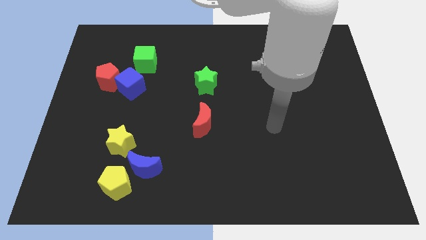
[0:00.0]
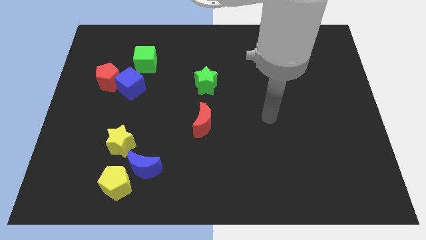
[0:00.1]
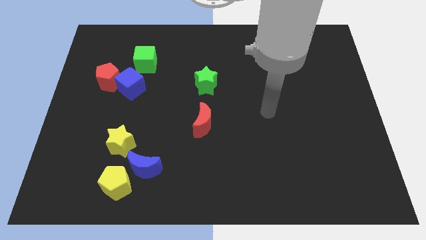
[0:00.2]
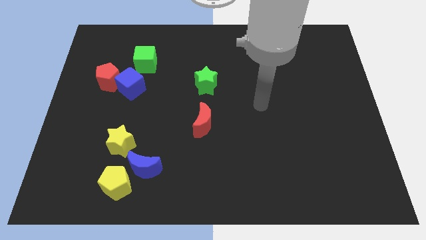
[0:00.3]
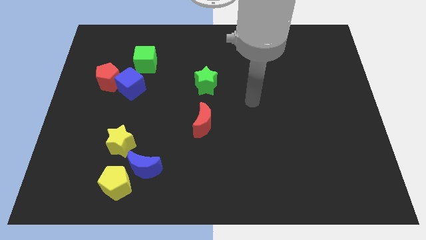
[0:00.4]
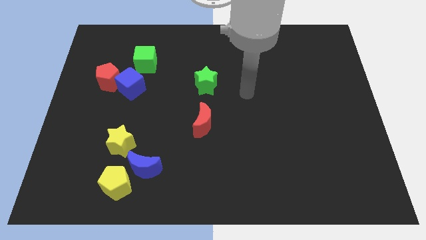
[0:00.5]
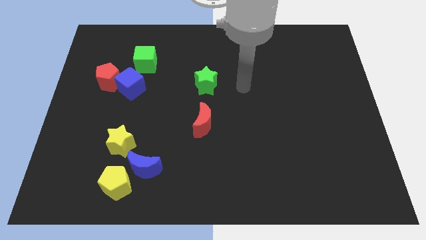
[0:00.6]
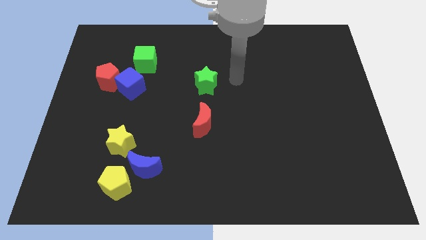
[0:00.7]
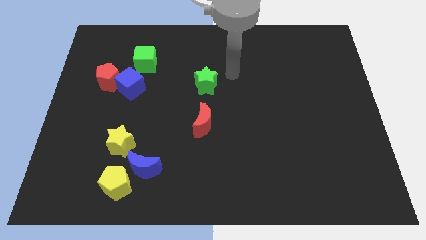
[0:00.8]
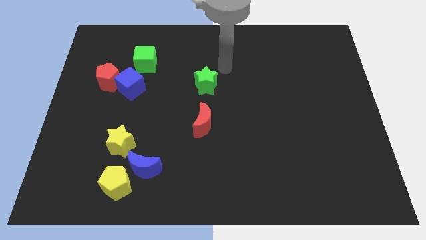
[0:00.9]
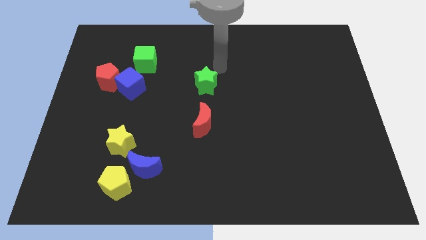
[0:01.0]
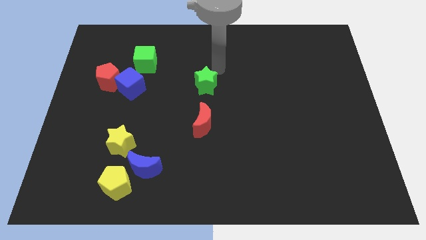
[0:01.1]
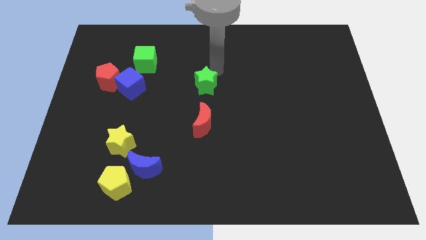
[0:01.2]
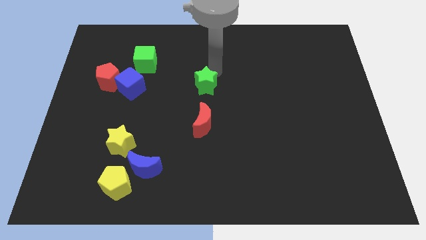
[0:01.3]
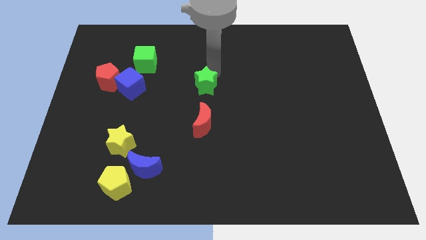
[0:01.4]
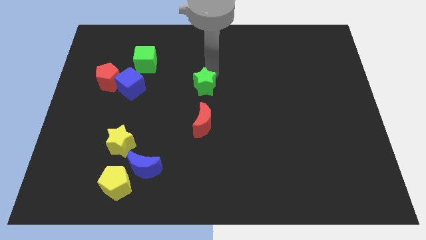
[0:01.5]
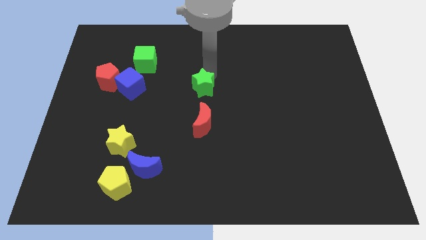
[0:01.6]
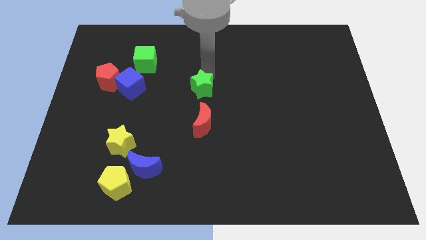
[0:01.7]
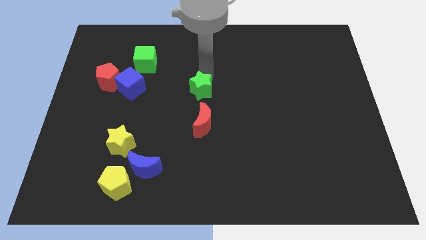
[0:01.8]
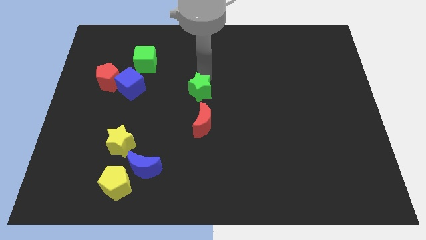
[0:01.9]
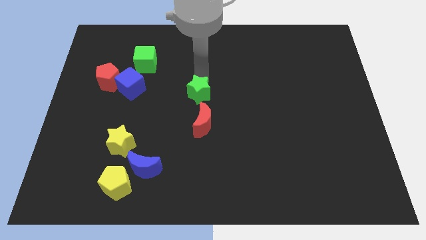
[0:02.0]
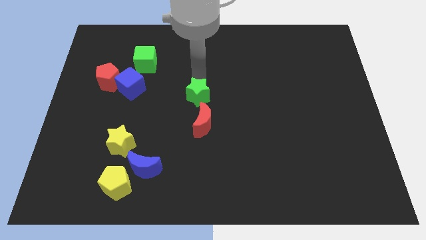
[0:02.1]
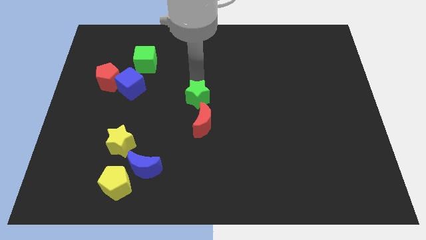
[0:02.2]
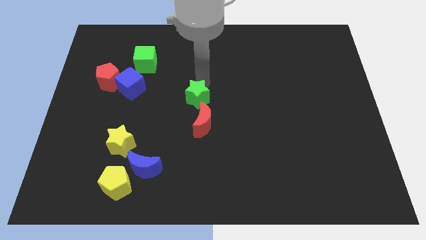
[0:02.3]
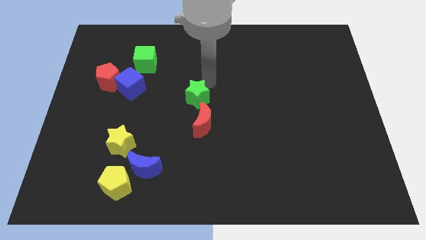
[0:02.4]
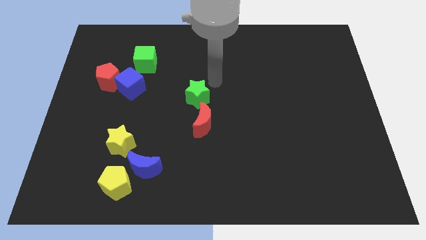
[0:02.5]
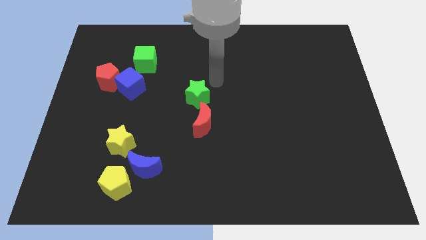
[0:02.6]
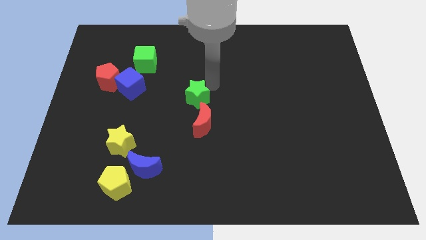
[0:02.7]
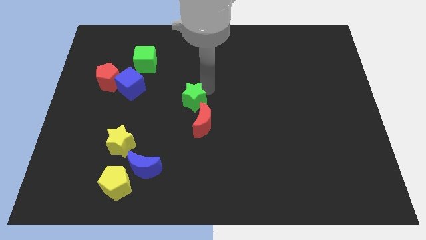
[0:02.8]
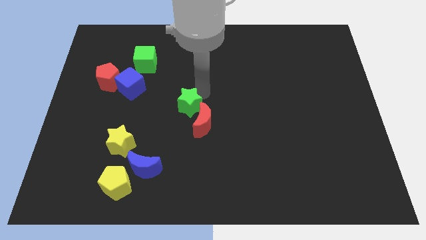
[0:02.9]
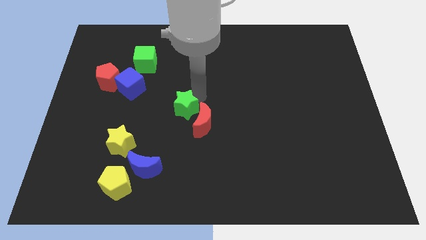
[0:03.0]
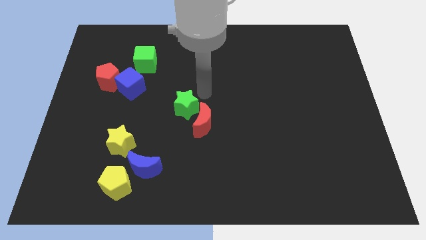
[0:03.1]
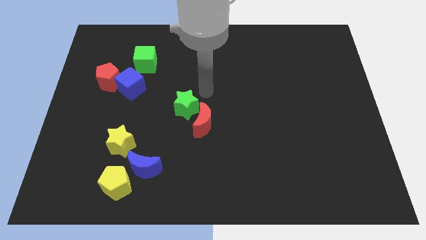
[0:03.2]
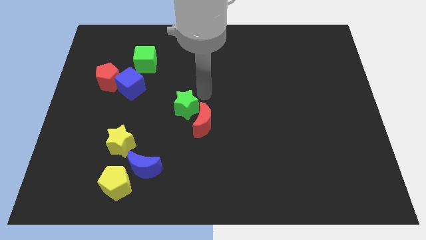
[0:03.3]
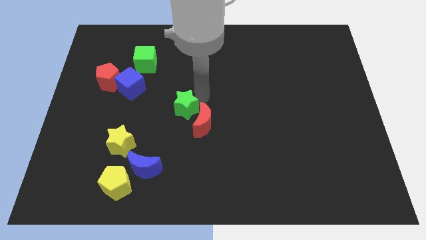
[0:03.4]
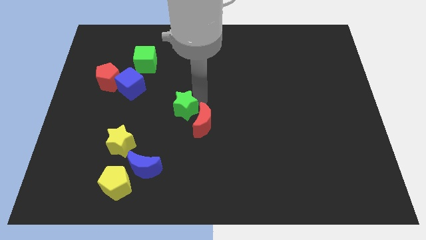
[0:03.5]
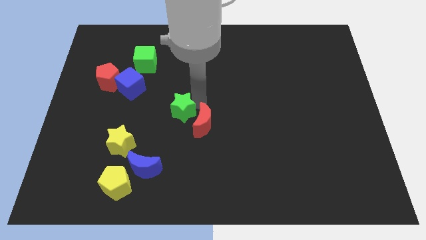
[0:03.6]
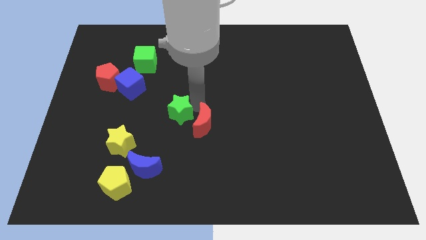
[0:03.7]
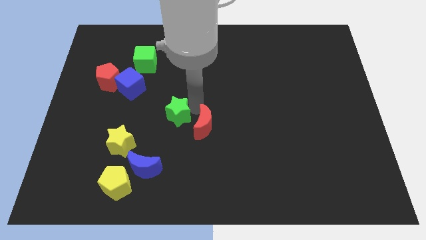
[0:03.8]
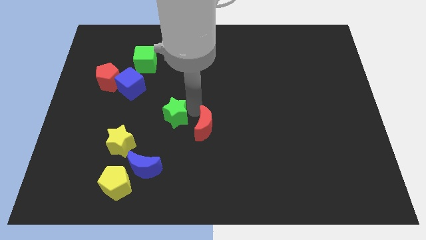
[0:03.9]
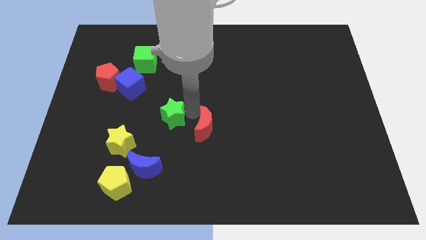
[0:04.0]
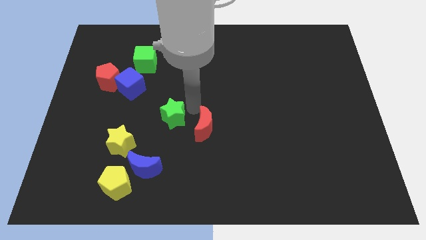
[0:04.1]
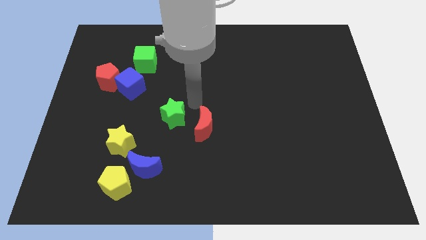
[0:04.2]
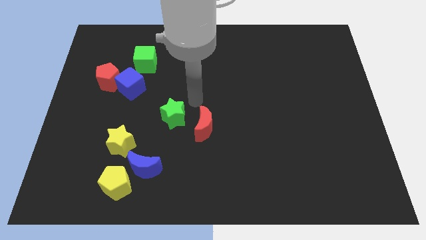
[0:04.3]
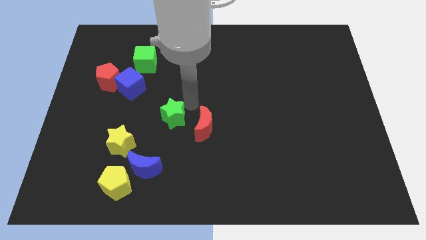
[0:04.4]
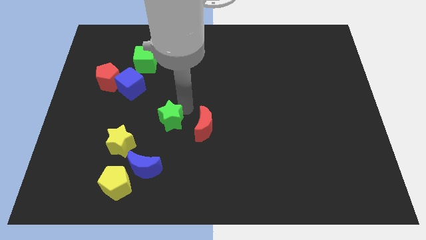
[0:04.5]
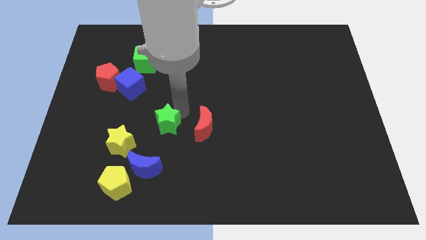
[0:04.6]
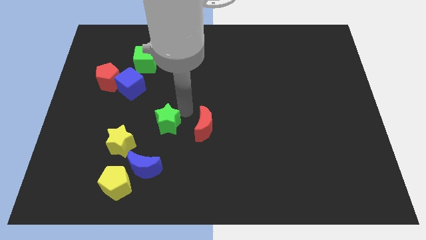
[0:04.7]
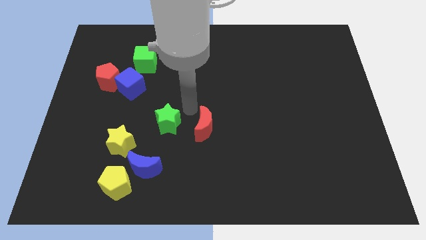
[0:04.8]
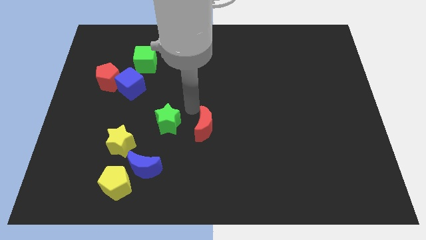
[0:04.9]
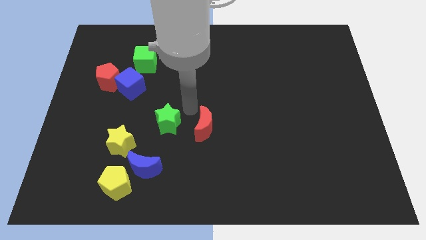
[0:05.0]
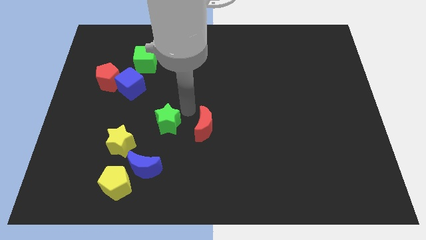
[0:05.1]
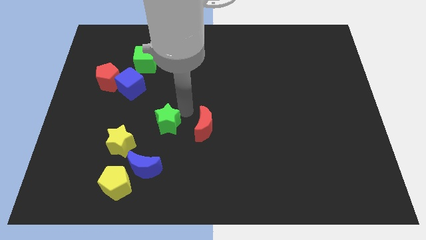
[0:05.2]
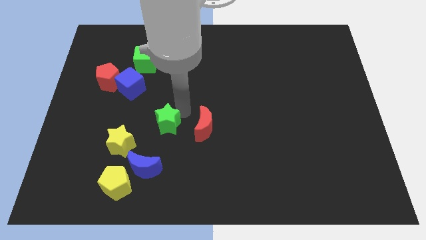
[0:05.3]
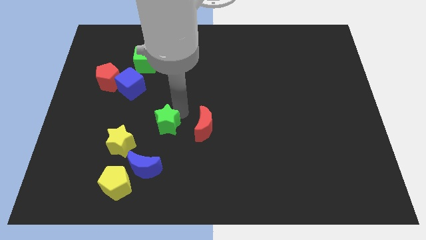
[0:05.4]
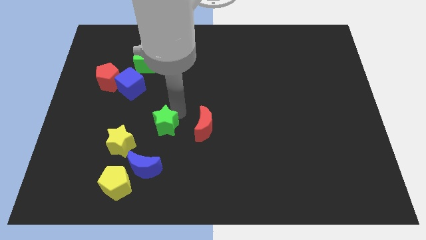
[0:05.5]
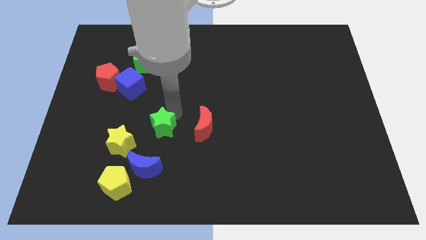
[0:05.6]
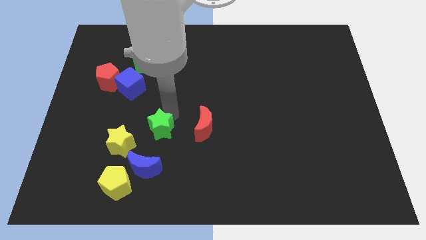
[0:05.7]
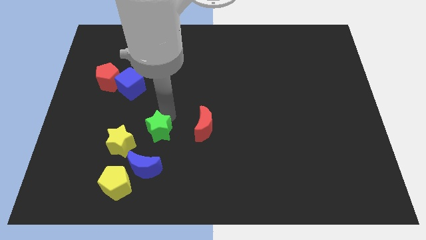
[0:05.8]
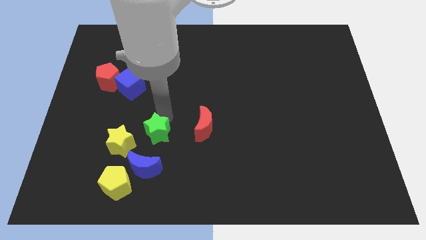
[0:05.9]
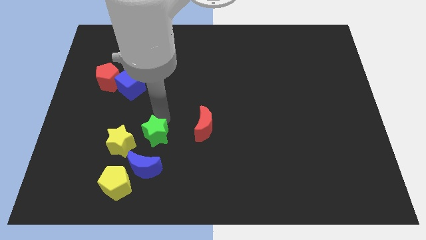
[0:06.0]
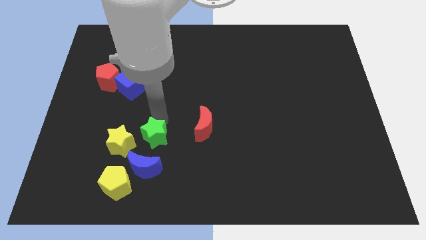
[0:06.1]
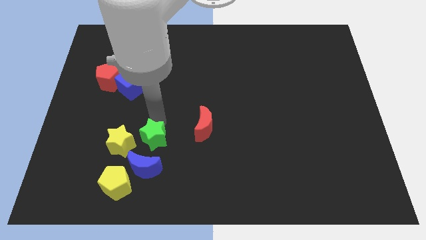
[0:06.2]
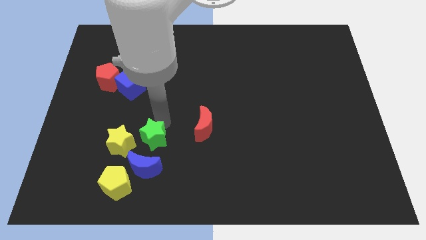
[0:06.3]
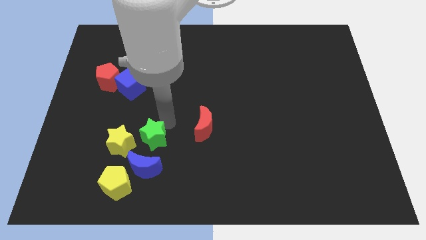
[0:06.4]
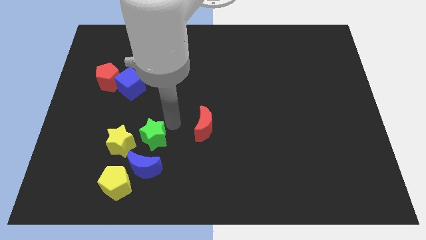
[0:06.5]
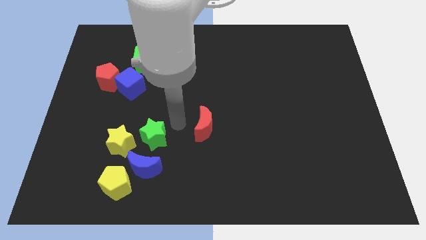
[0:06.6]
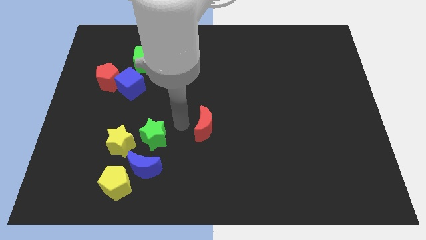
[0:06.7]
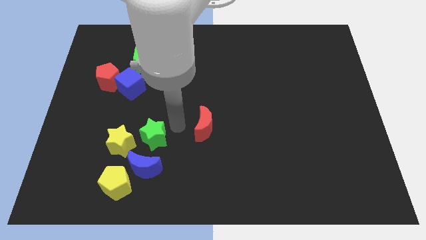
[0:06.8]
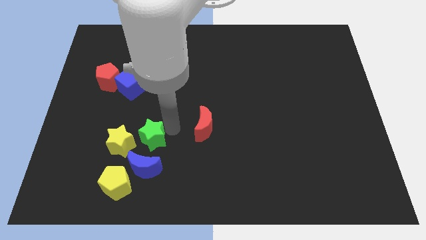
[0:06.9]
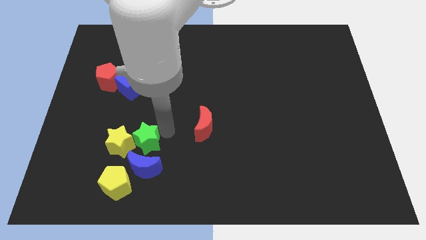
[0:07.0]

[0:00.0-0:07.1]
slide the green star diagonally down and left

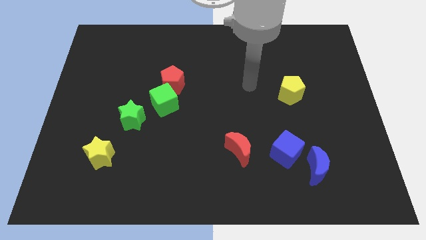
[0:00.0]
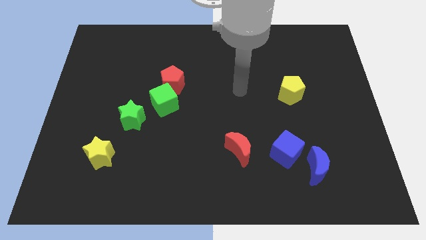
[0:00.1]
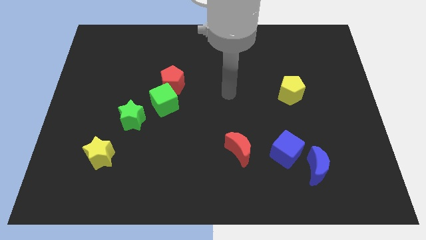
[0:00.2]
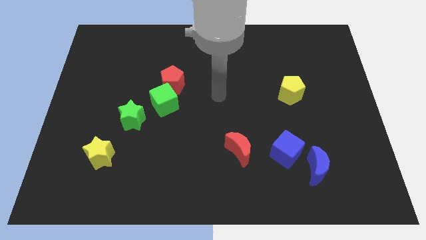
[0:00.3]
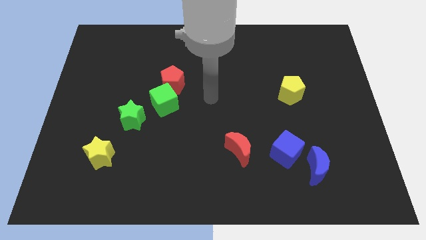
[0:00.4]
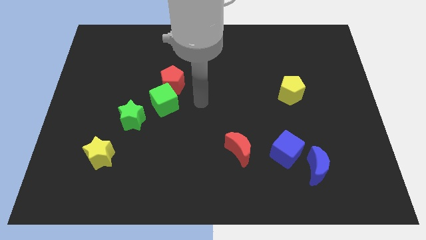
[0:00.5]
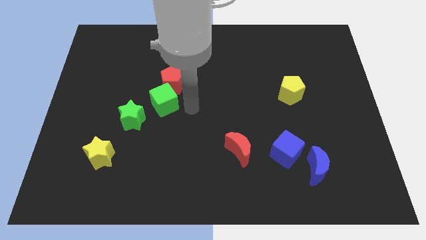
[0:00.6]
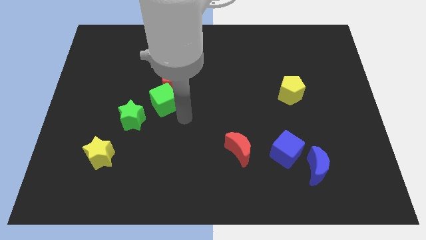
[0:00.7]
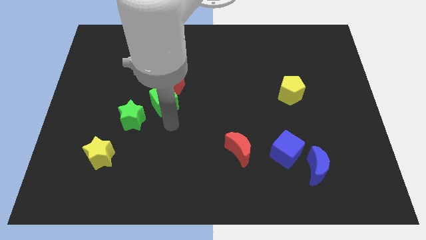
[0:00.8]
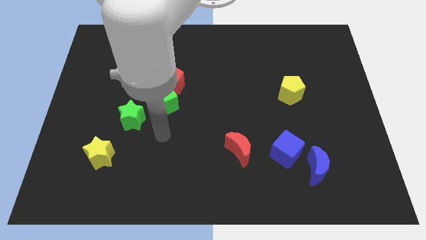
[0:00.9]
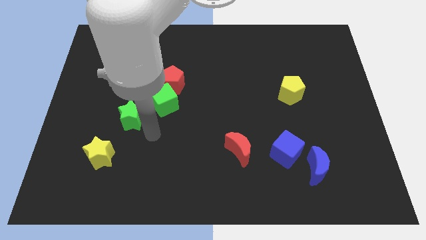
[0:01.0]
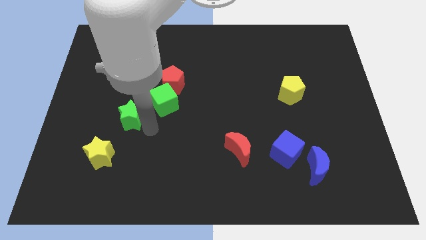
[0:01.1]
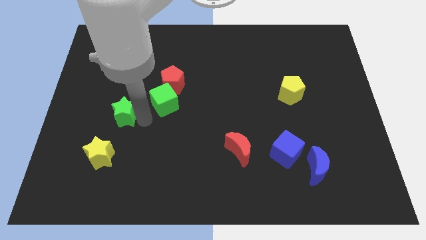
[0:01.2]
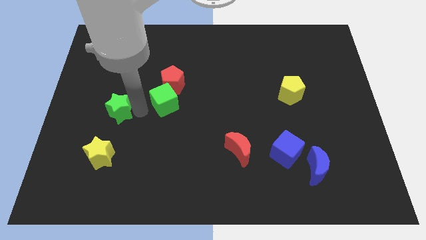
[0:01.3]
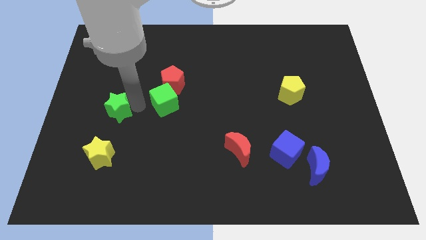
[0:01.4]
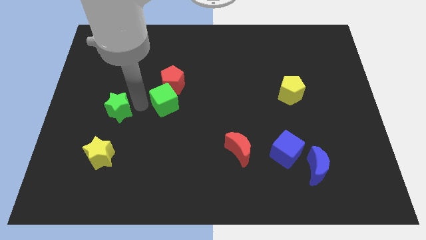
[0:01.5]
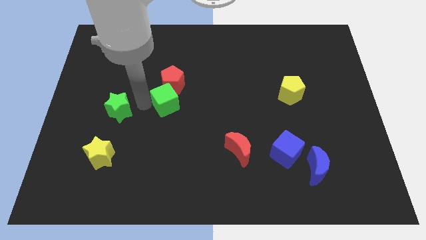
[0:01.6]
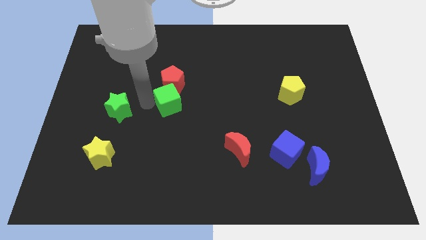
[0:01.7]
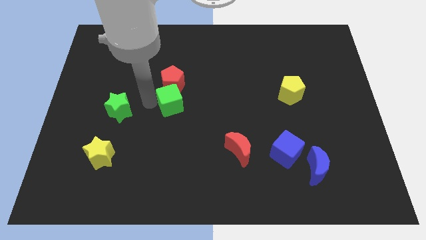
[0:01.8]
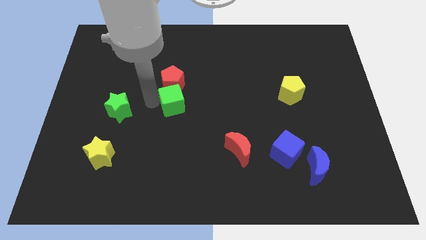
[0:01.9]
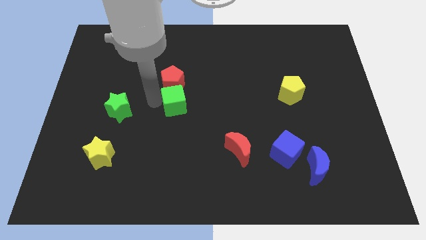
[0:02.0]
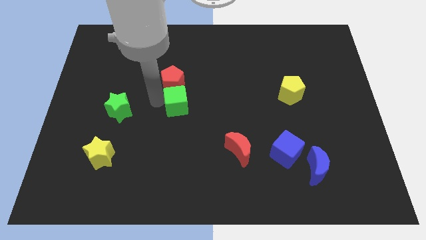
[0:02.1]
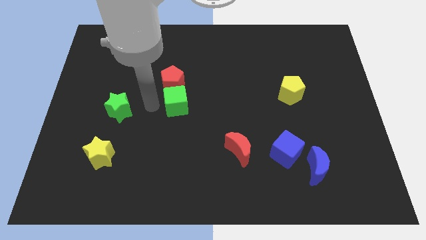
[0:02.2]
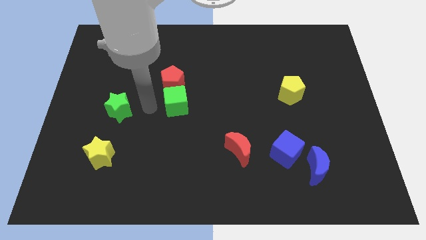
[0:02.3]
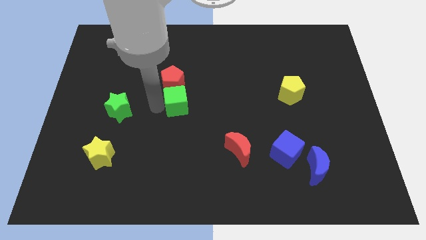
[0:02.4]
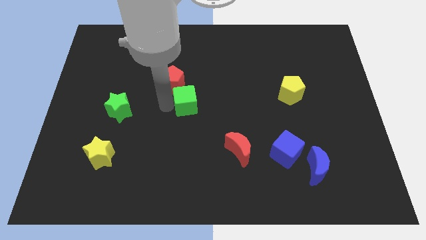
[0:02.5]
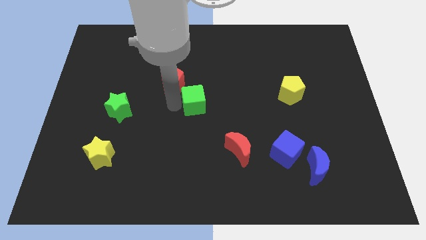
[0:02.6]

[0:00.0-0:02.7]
slide the green cube somewhat right
